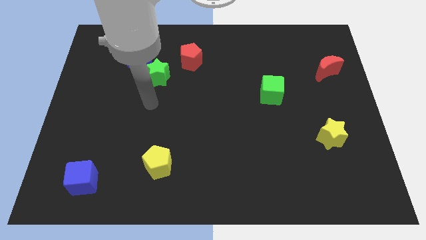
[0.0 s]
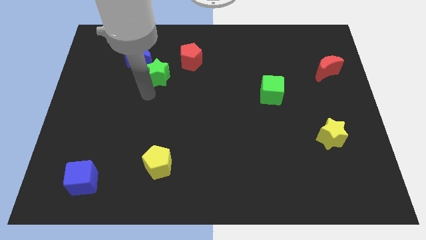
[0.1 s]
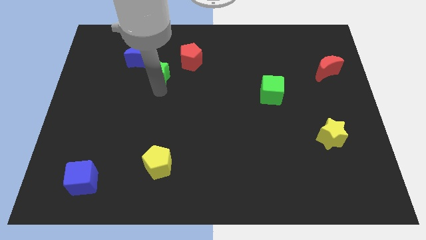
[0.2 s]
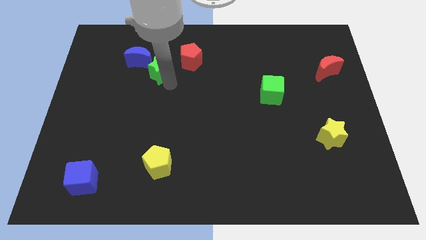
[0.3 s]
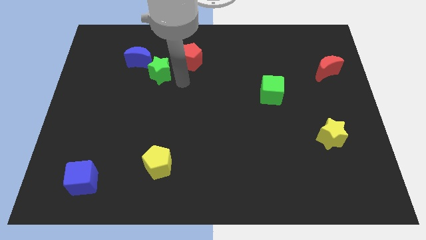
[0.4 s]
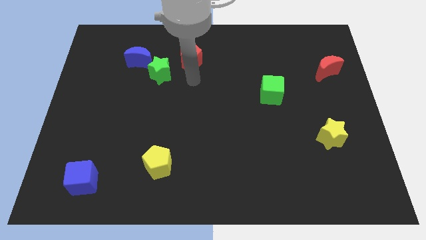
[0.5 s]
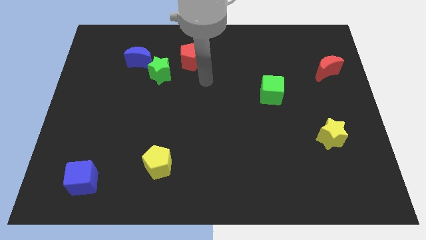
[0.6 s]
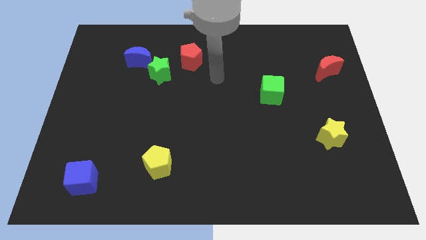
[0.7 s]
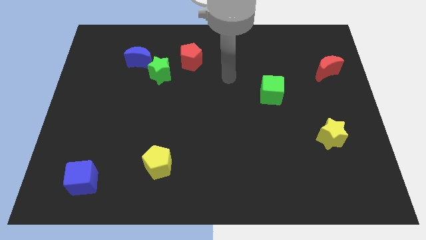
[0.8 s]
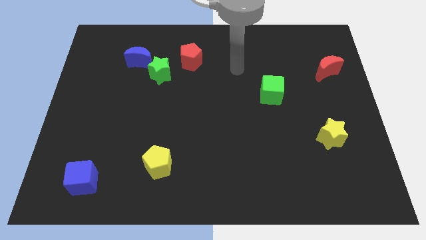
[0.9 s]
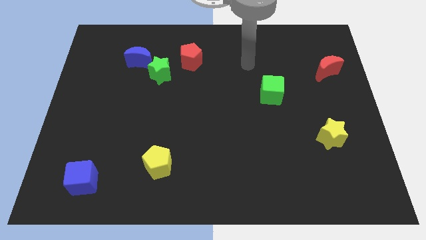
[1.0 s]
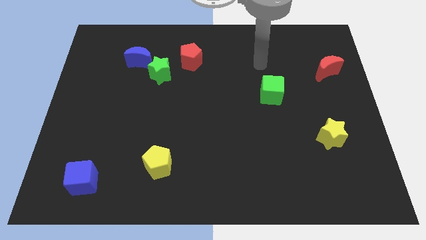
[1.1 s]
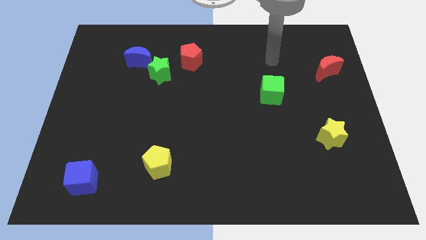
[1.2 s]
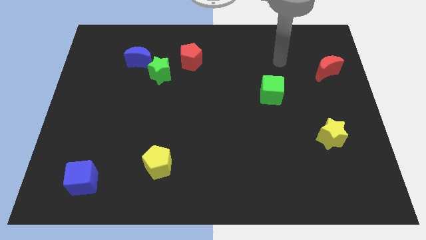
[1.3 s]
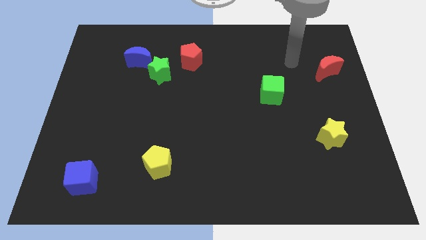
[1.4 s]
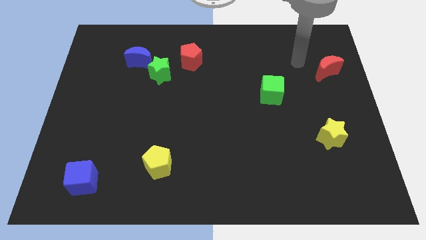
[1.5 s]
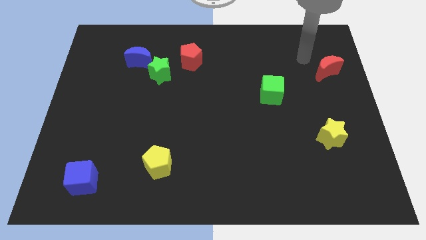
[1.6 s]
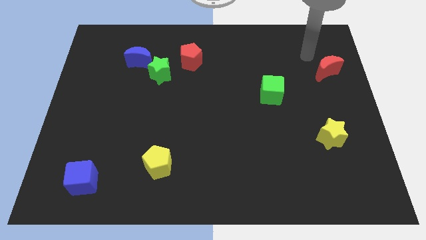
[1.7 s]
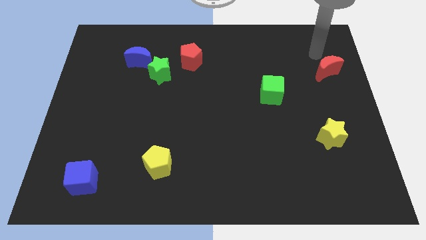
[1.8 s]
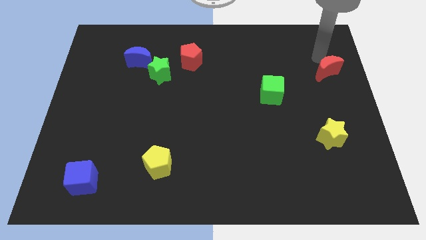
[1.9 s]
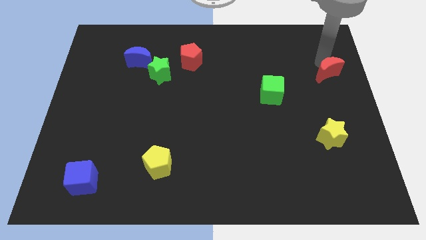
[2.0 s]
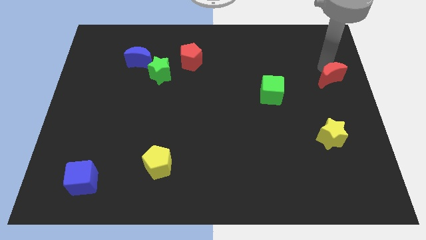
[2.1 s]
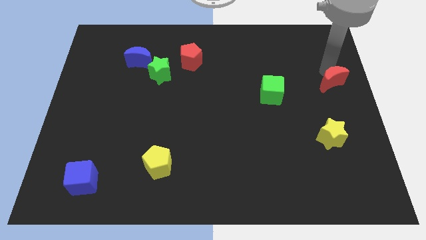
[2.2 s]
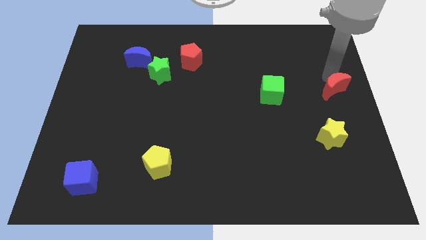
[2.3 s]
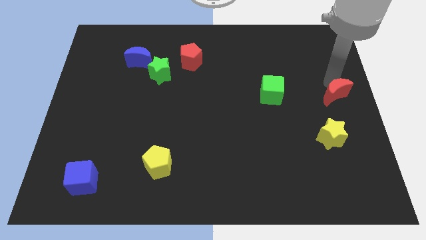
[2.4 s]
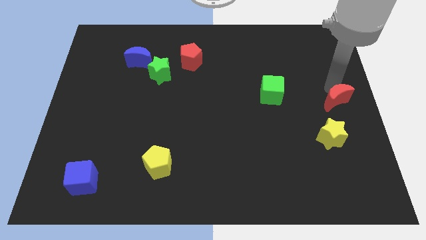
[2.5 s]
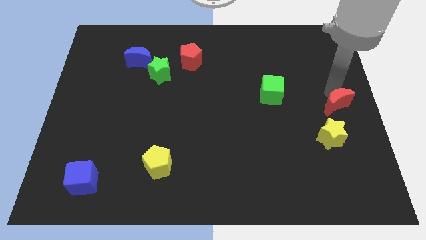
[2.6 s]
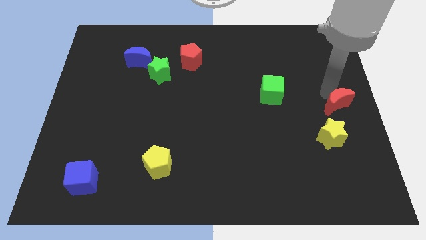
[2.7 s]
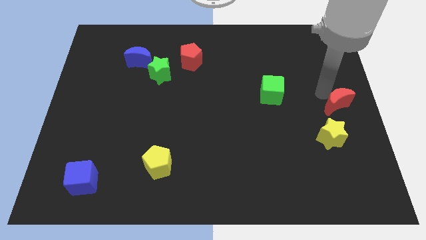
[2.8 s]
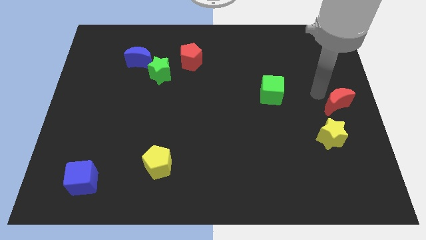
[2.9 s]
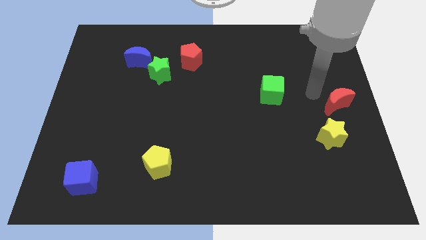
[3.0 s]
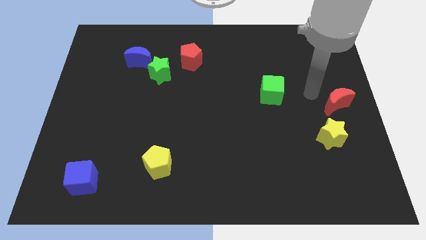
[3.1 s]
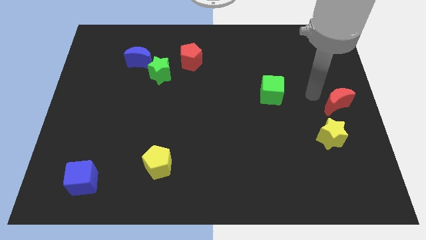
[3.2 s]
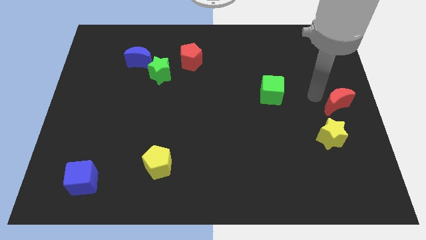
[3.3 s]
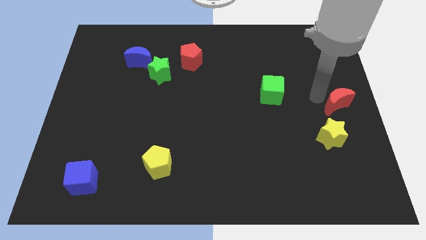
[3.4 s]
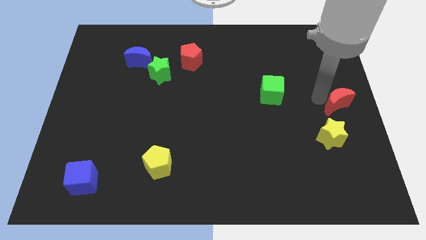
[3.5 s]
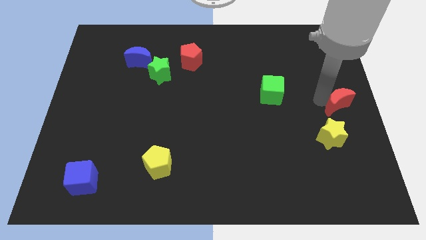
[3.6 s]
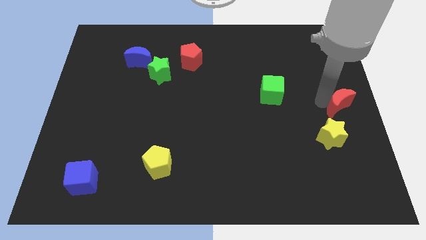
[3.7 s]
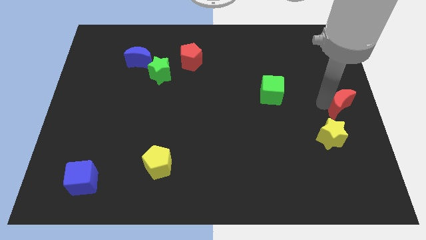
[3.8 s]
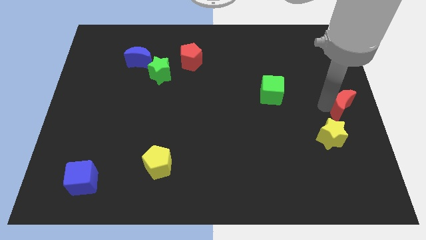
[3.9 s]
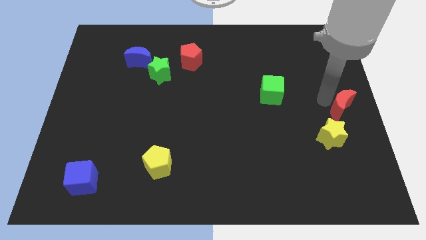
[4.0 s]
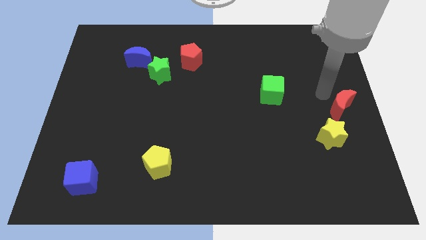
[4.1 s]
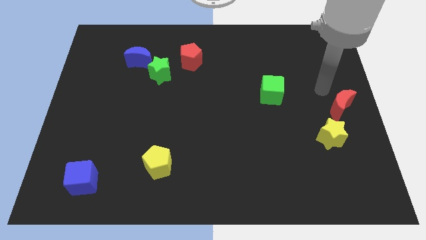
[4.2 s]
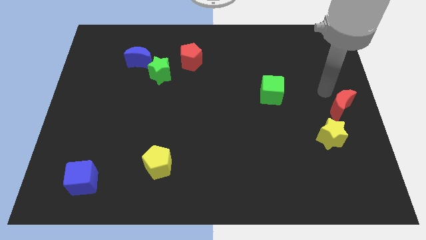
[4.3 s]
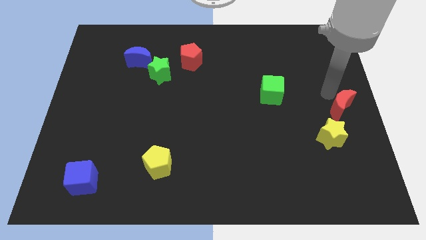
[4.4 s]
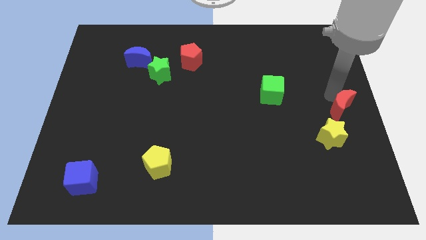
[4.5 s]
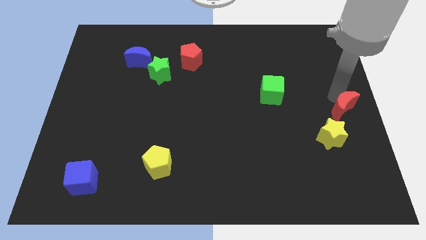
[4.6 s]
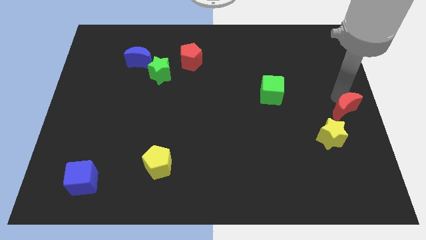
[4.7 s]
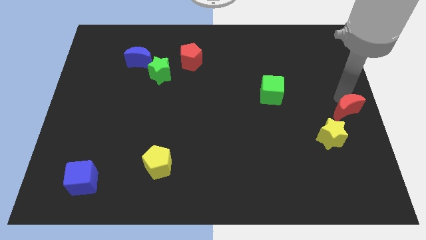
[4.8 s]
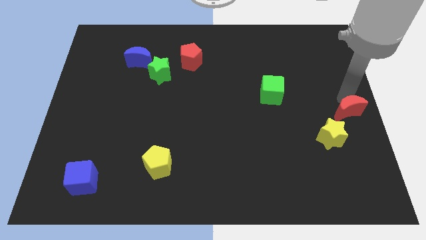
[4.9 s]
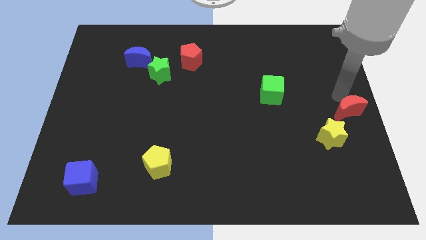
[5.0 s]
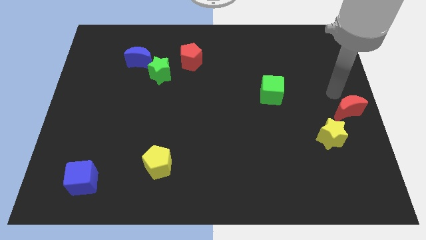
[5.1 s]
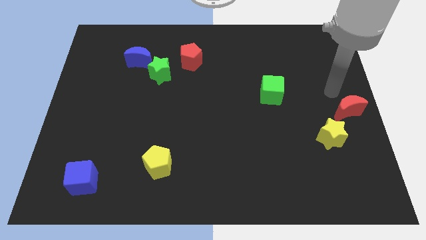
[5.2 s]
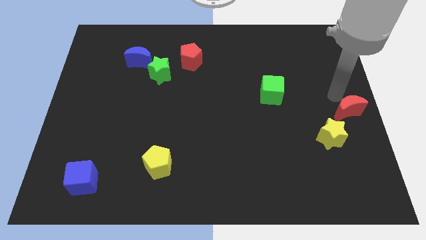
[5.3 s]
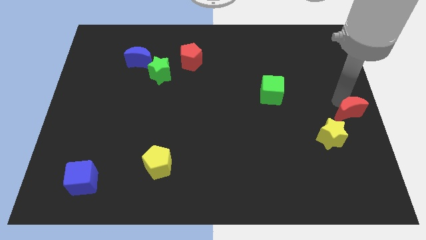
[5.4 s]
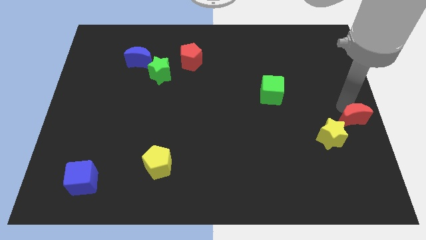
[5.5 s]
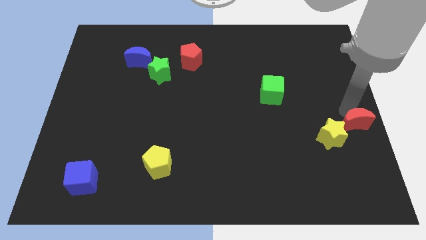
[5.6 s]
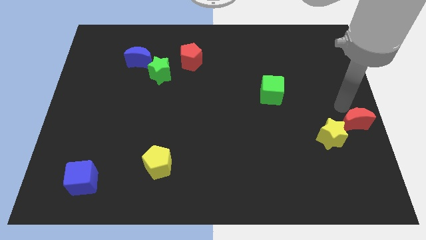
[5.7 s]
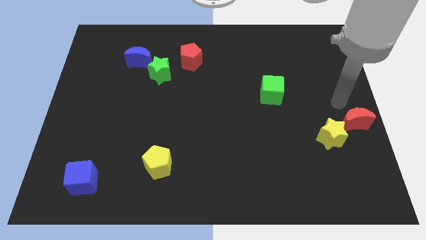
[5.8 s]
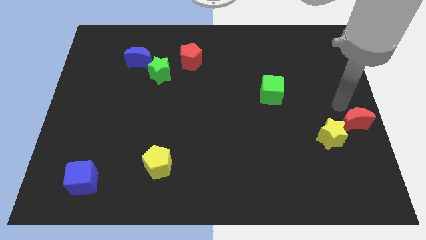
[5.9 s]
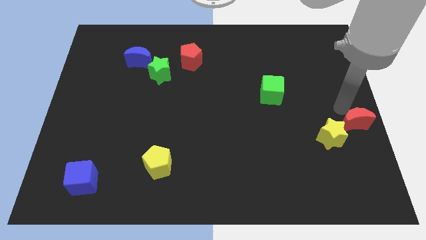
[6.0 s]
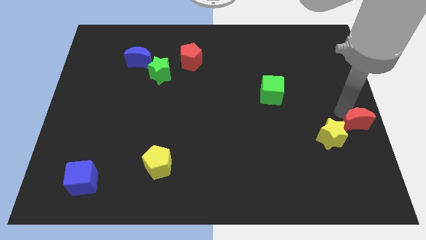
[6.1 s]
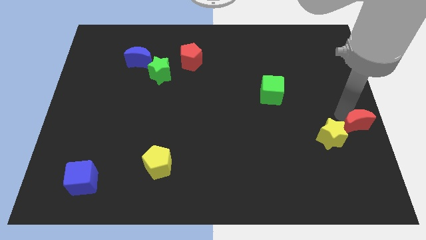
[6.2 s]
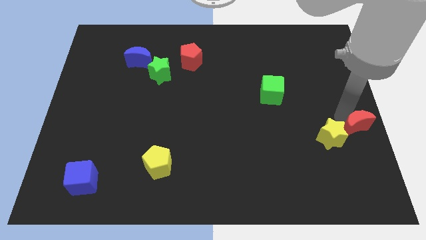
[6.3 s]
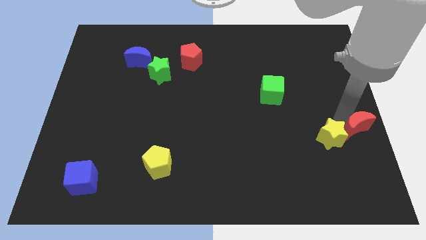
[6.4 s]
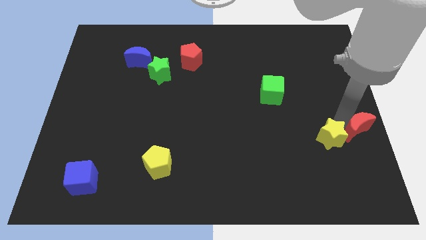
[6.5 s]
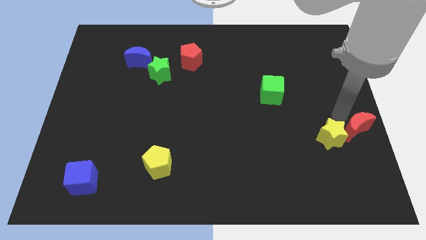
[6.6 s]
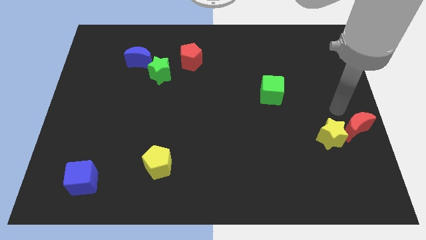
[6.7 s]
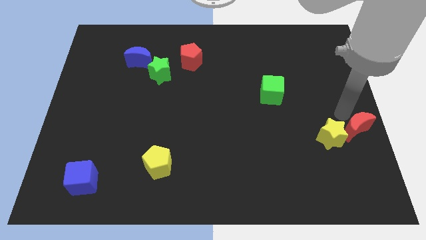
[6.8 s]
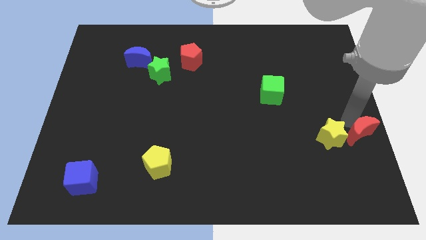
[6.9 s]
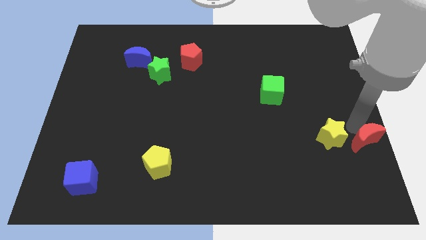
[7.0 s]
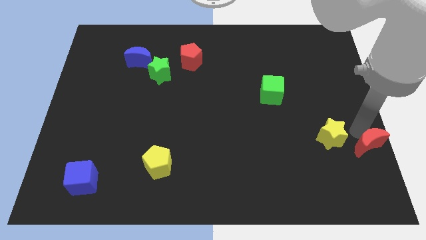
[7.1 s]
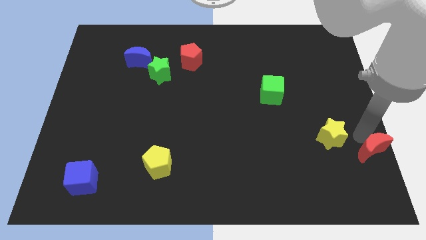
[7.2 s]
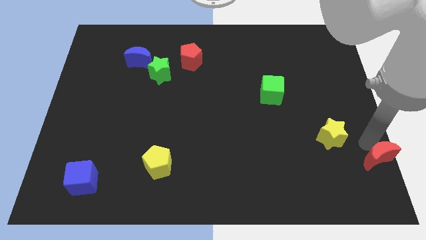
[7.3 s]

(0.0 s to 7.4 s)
push the red moon to the bottom right
